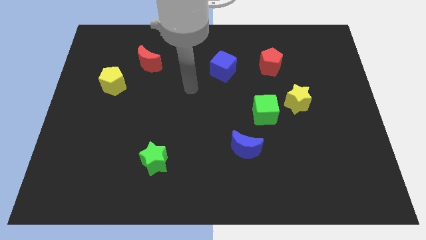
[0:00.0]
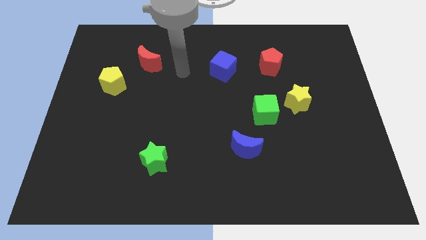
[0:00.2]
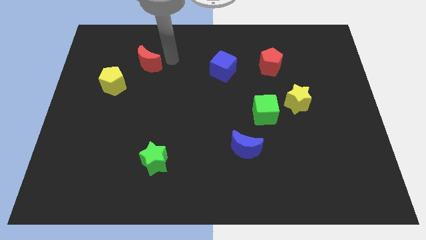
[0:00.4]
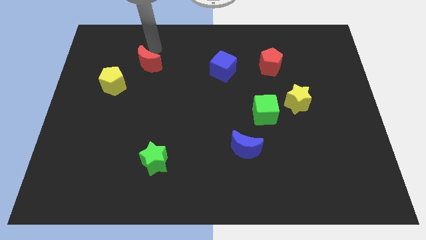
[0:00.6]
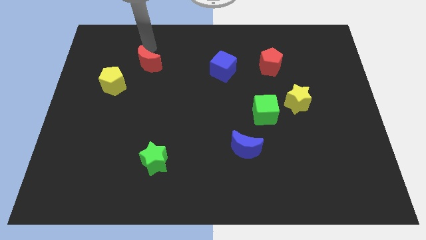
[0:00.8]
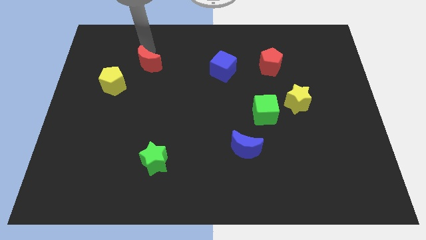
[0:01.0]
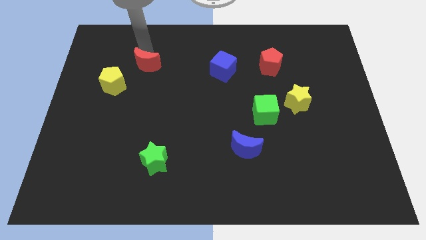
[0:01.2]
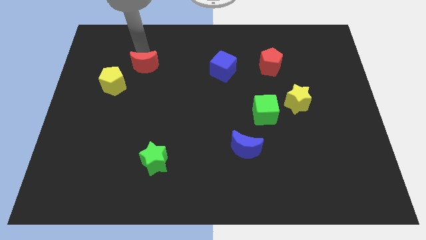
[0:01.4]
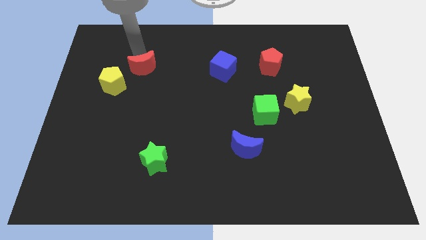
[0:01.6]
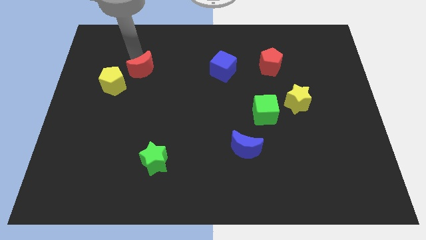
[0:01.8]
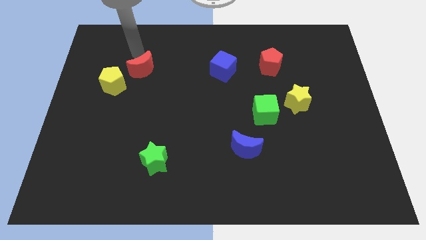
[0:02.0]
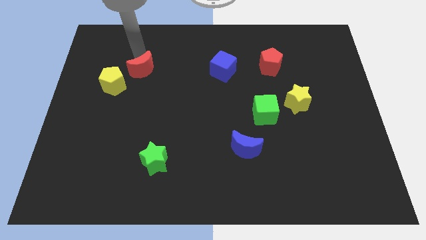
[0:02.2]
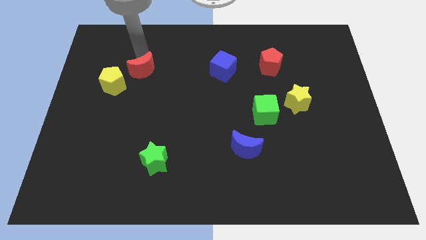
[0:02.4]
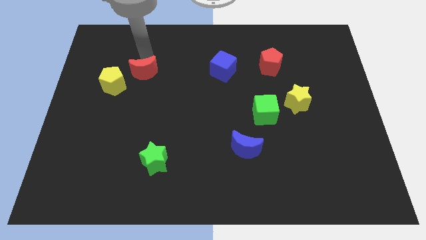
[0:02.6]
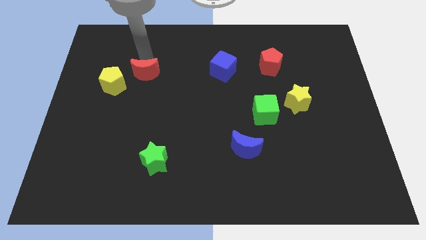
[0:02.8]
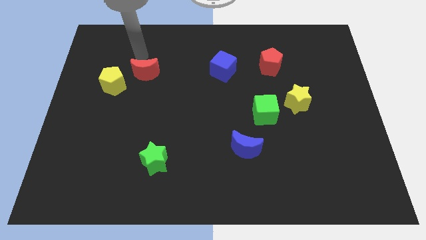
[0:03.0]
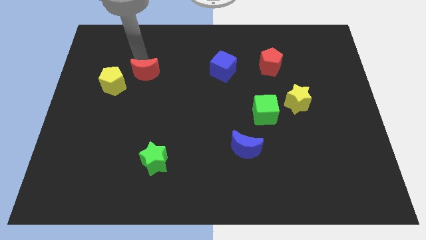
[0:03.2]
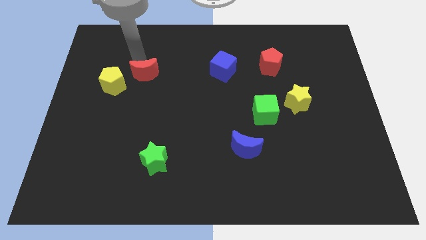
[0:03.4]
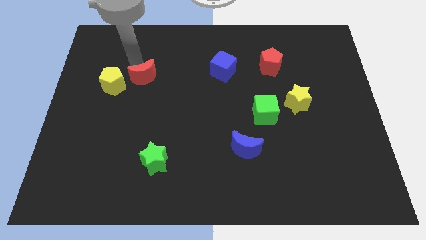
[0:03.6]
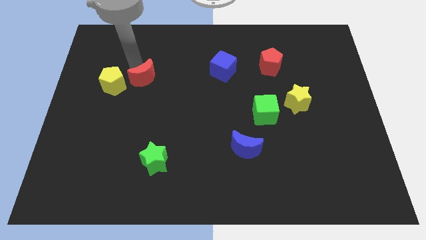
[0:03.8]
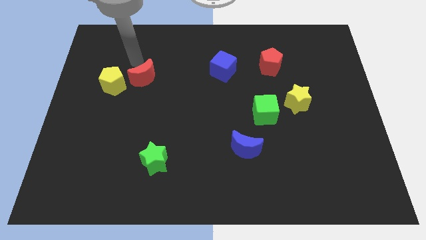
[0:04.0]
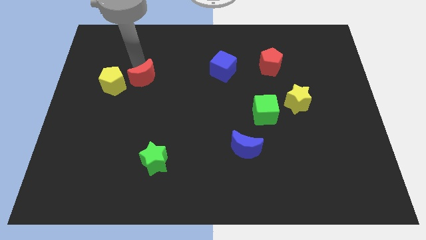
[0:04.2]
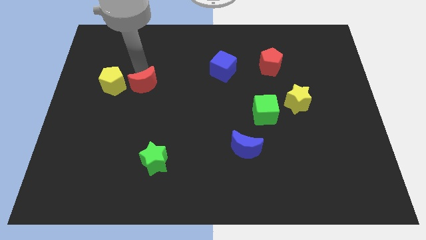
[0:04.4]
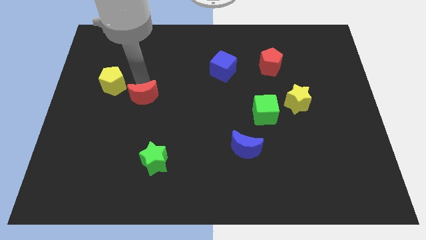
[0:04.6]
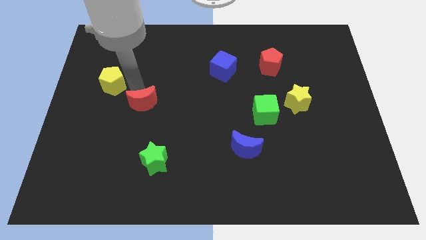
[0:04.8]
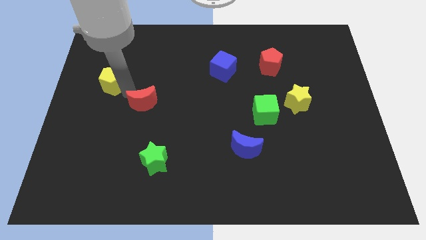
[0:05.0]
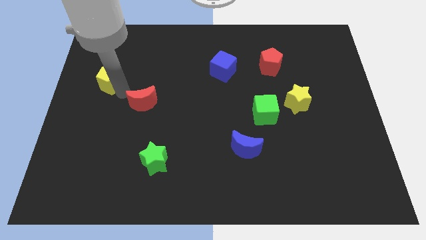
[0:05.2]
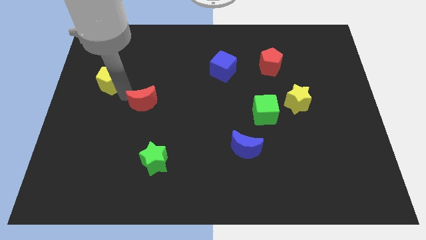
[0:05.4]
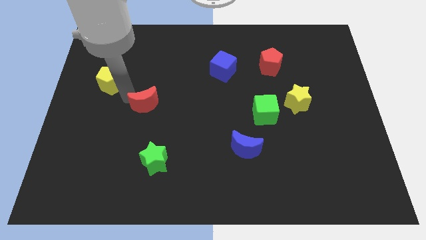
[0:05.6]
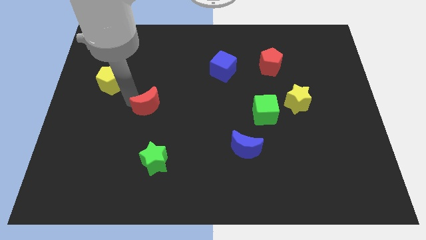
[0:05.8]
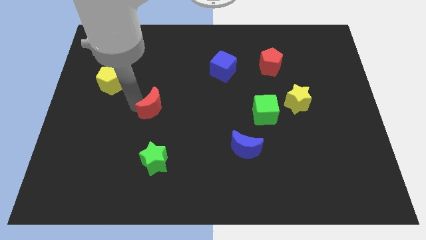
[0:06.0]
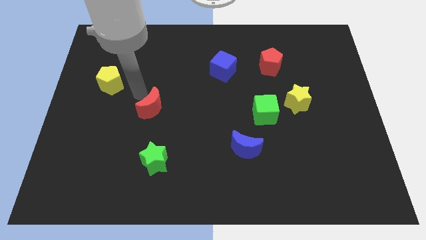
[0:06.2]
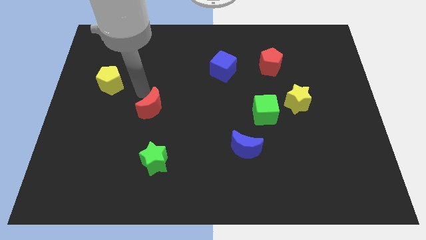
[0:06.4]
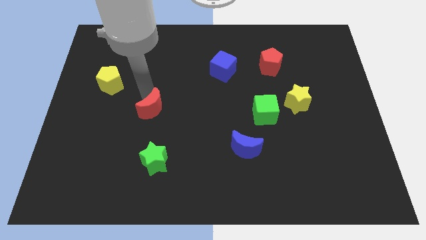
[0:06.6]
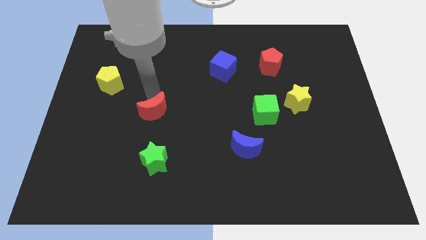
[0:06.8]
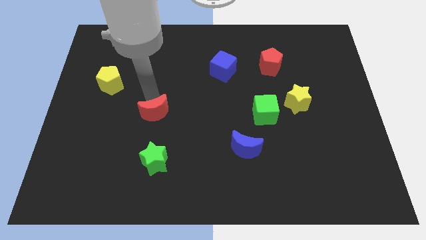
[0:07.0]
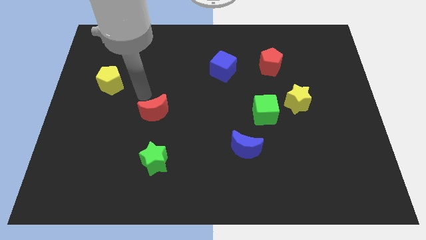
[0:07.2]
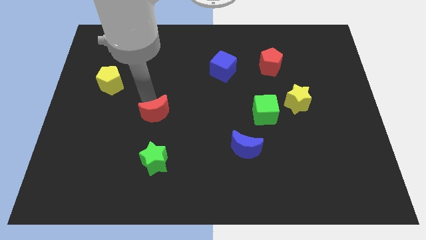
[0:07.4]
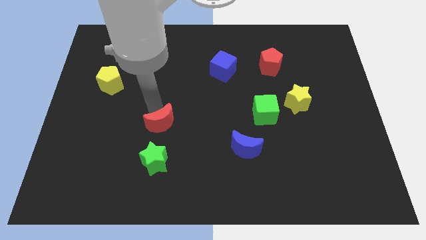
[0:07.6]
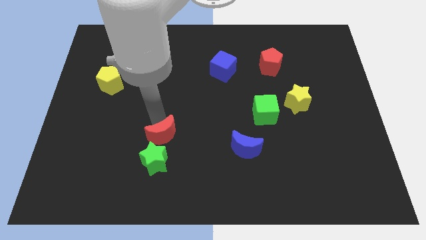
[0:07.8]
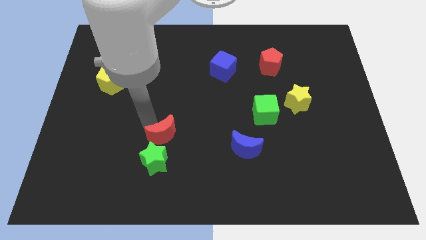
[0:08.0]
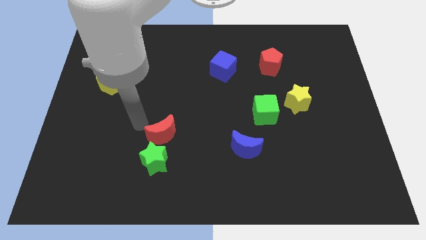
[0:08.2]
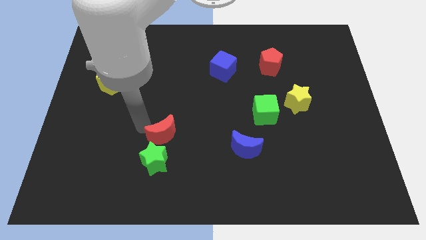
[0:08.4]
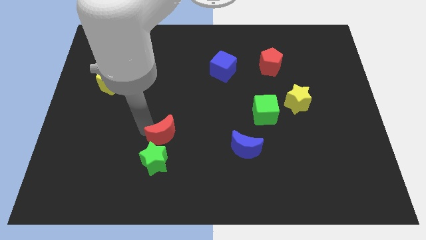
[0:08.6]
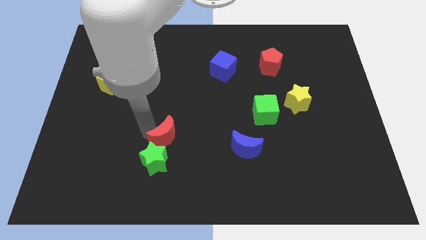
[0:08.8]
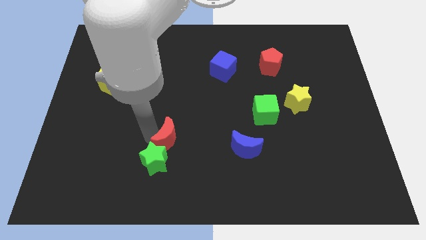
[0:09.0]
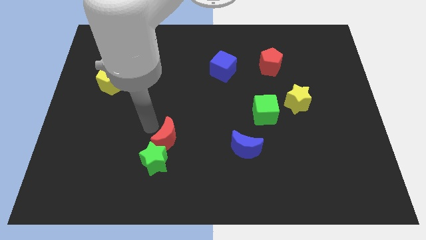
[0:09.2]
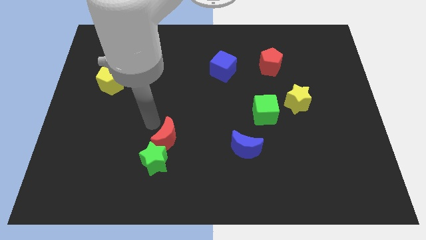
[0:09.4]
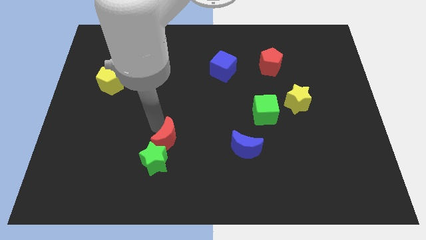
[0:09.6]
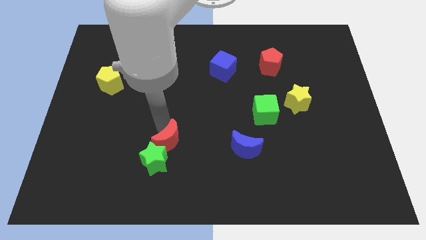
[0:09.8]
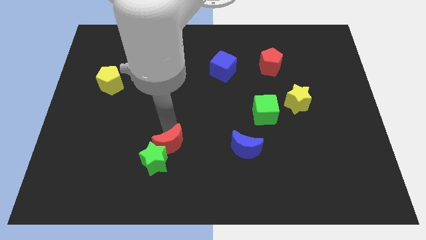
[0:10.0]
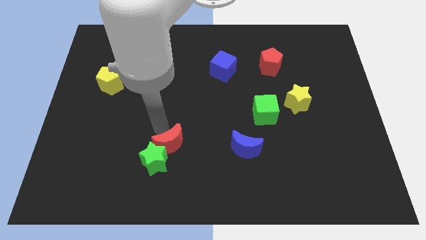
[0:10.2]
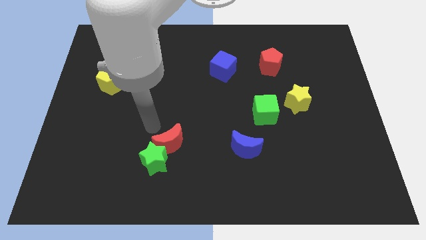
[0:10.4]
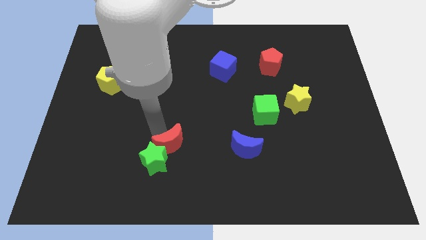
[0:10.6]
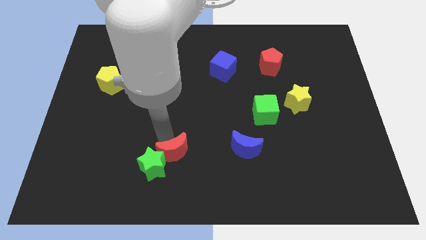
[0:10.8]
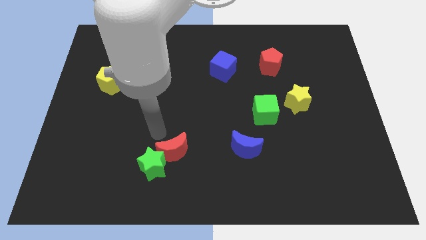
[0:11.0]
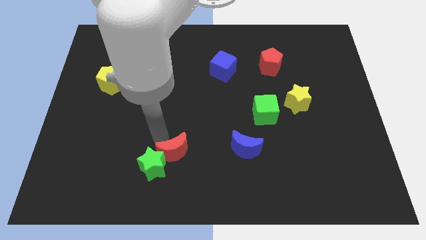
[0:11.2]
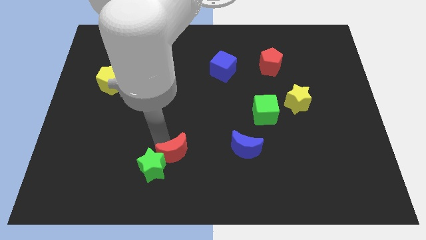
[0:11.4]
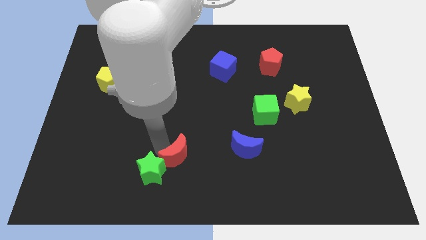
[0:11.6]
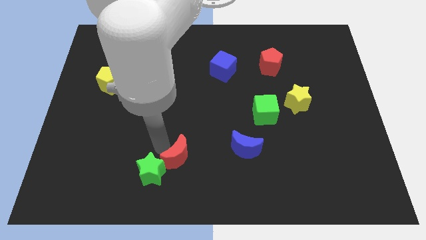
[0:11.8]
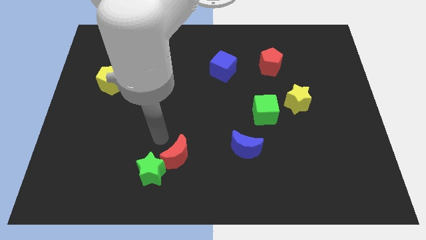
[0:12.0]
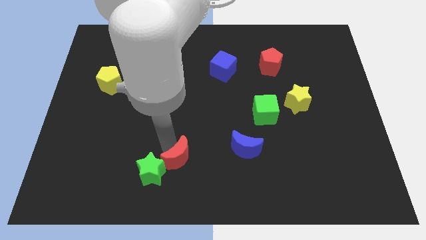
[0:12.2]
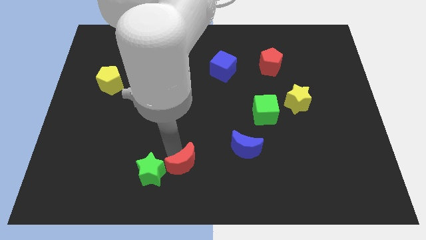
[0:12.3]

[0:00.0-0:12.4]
push the red moon to the bottom
